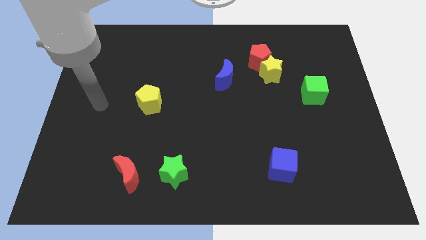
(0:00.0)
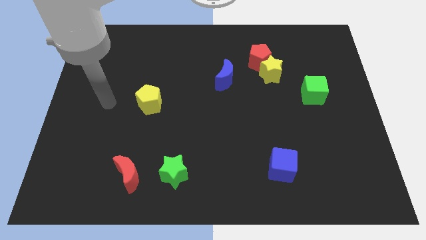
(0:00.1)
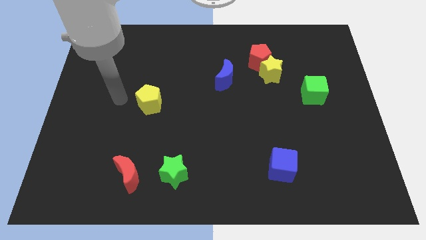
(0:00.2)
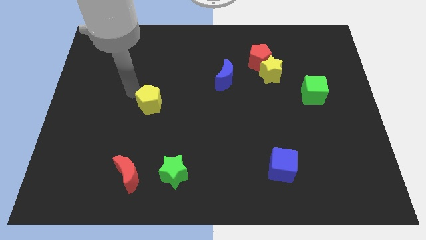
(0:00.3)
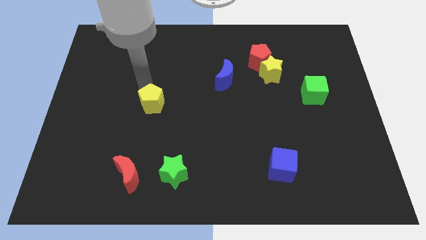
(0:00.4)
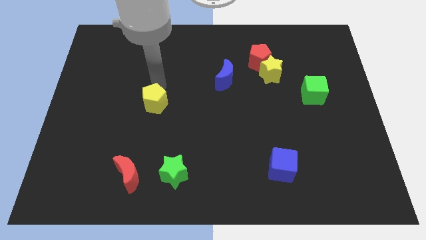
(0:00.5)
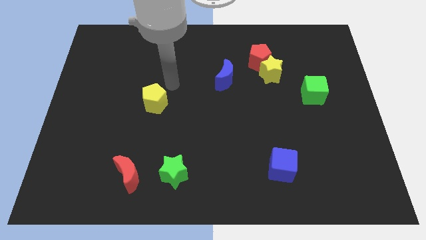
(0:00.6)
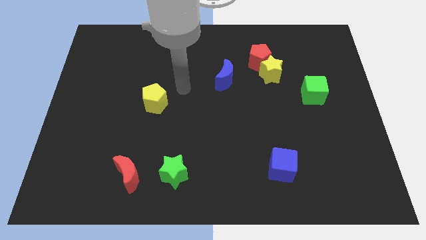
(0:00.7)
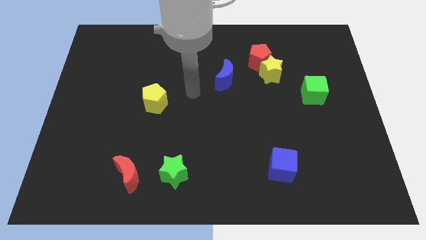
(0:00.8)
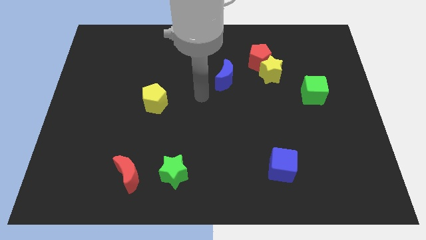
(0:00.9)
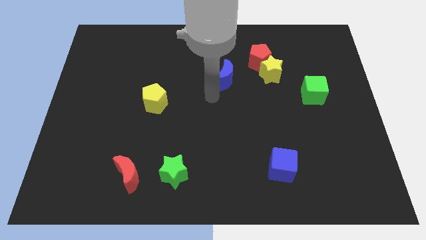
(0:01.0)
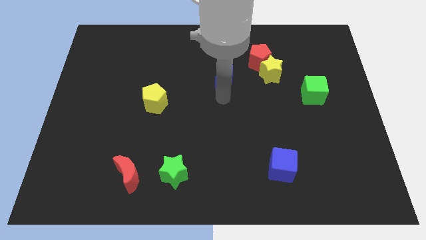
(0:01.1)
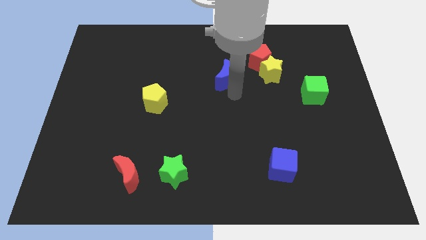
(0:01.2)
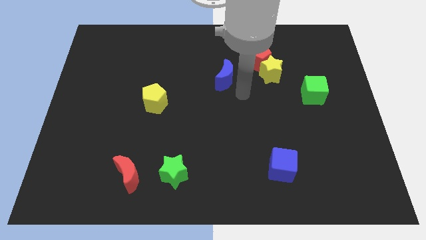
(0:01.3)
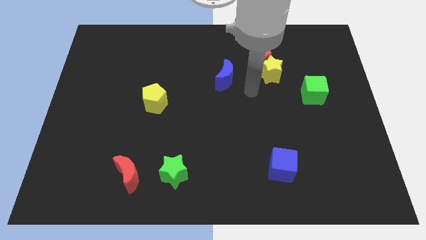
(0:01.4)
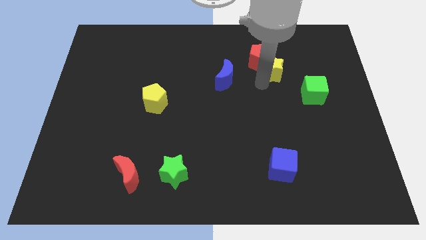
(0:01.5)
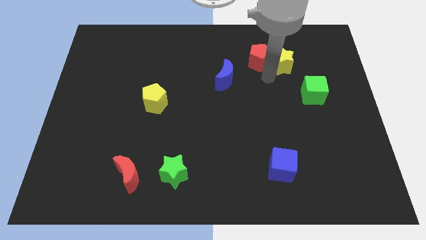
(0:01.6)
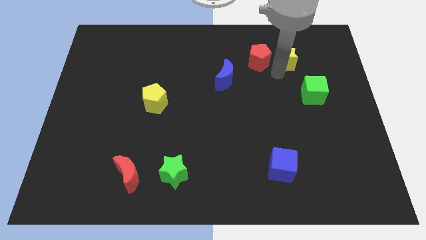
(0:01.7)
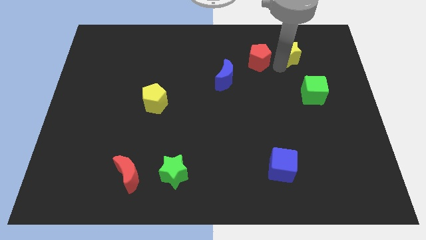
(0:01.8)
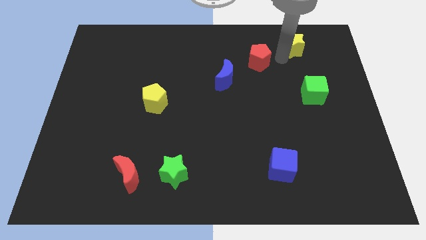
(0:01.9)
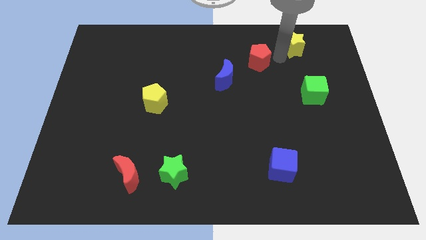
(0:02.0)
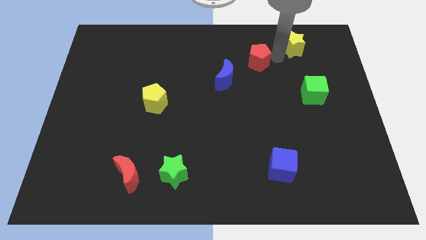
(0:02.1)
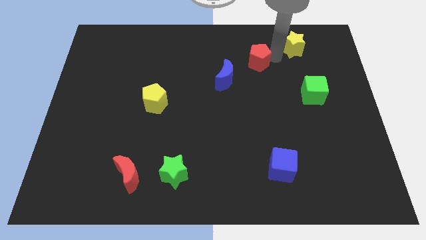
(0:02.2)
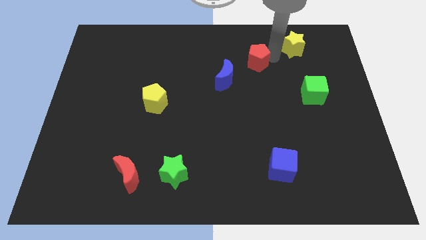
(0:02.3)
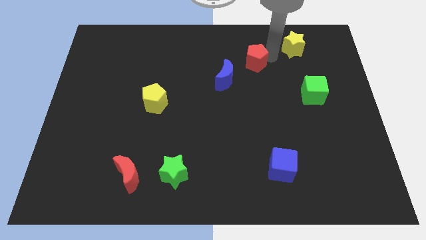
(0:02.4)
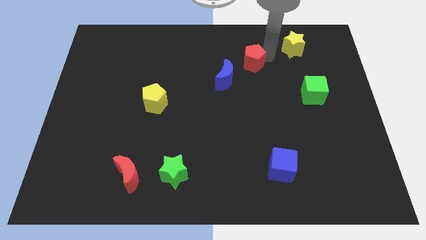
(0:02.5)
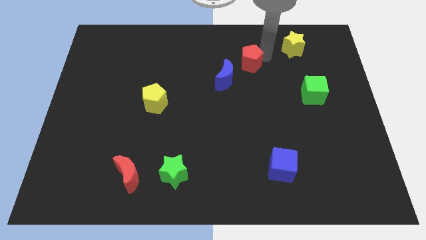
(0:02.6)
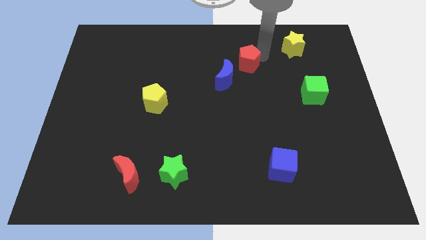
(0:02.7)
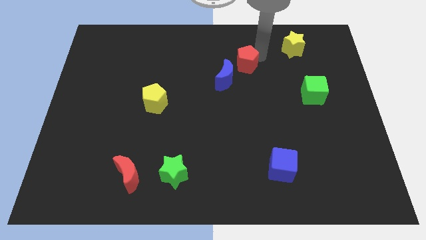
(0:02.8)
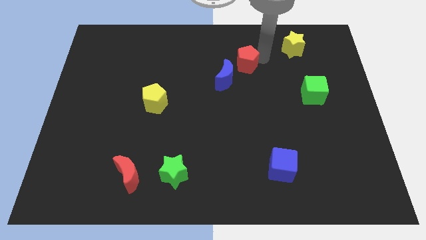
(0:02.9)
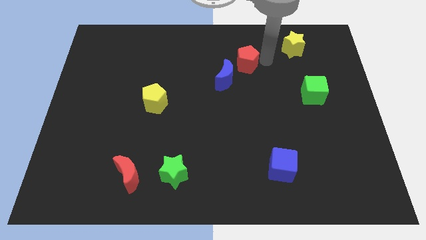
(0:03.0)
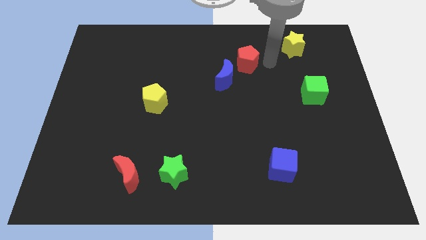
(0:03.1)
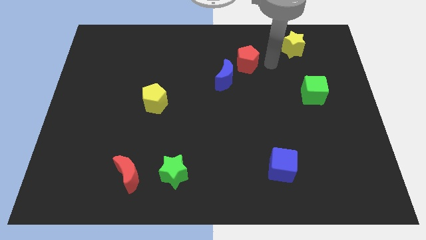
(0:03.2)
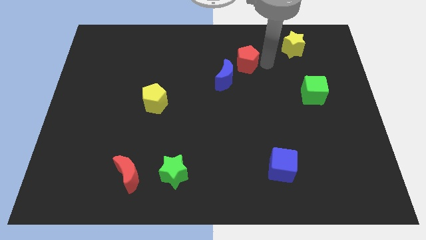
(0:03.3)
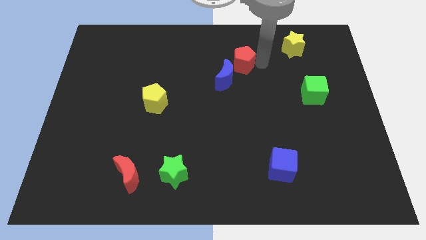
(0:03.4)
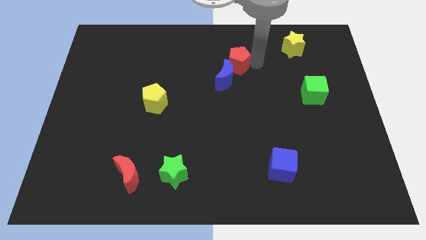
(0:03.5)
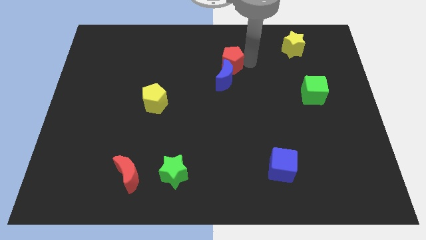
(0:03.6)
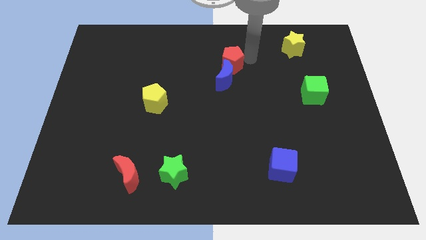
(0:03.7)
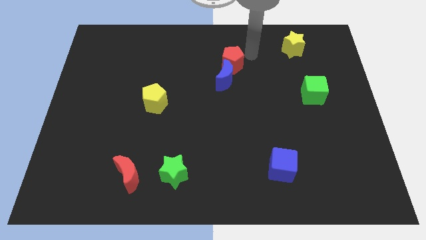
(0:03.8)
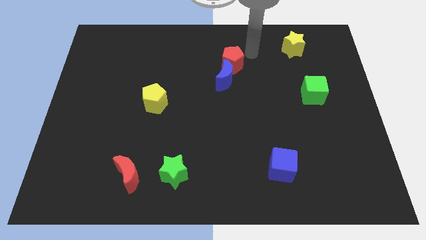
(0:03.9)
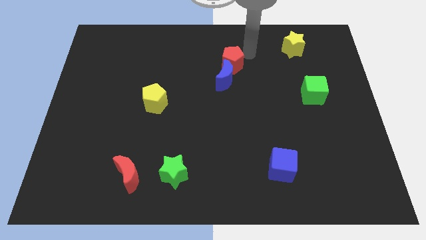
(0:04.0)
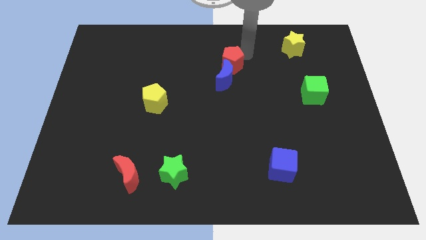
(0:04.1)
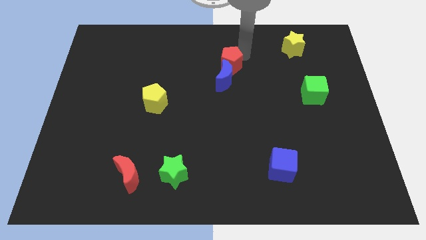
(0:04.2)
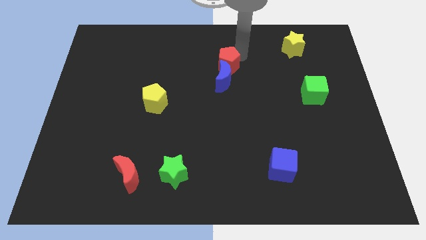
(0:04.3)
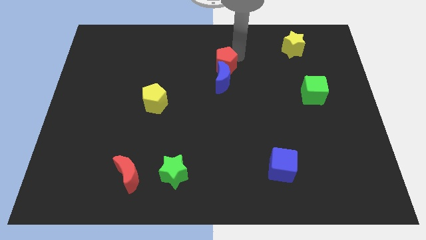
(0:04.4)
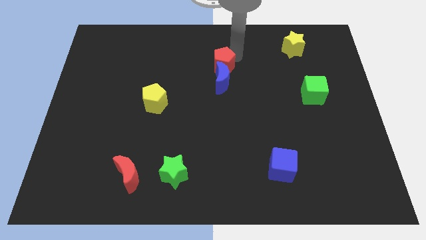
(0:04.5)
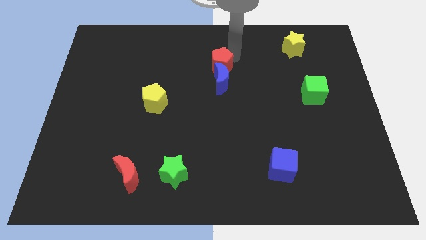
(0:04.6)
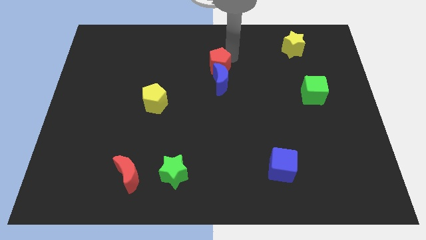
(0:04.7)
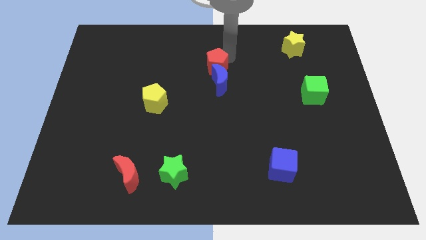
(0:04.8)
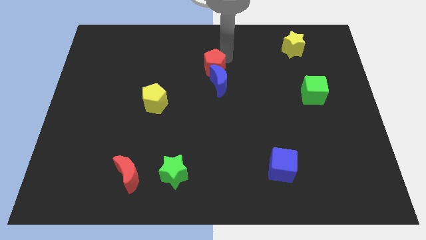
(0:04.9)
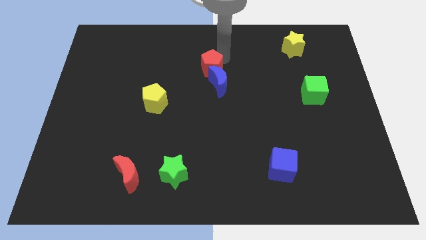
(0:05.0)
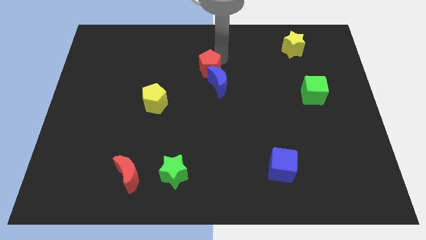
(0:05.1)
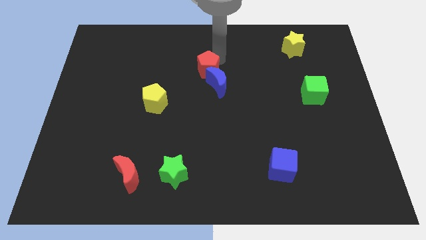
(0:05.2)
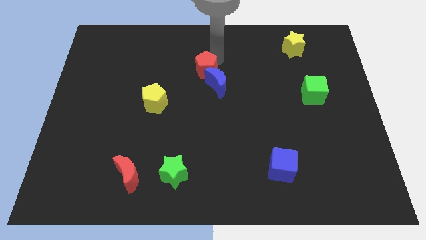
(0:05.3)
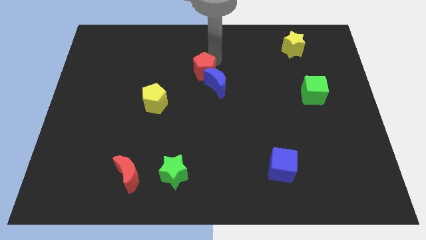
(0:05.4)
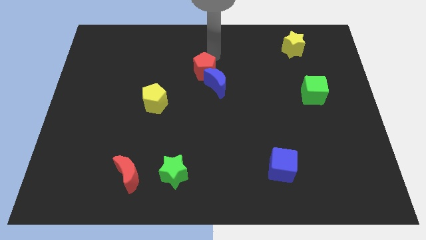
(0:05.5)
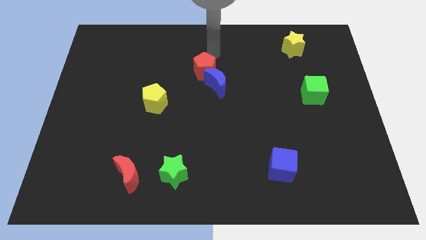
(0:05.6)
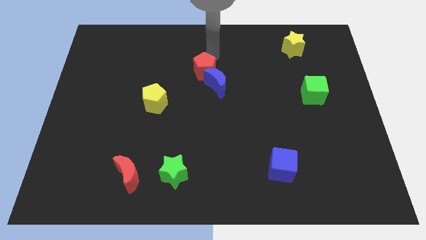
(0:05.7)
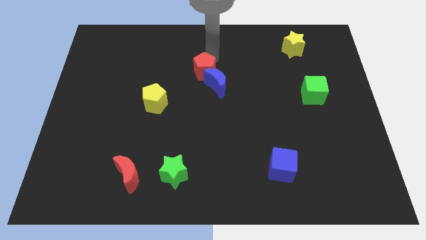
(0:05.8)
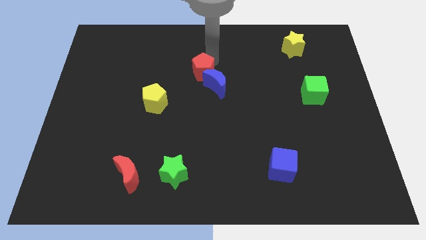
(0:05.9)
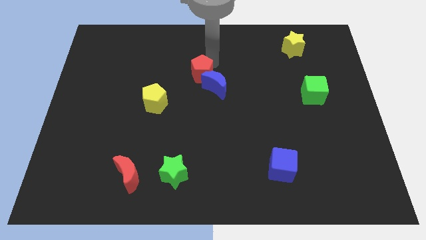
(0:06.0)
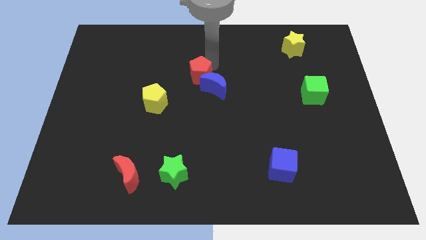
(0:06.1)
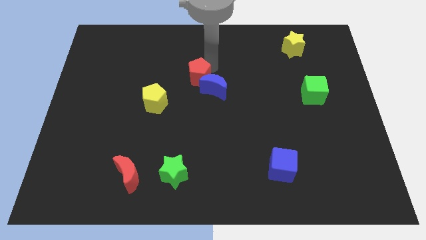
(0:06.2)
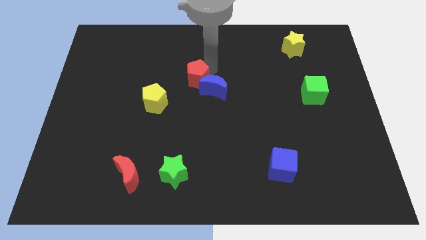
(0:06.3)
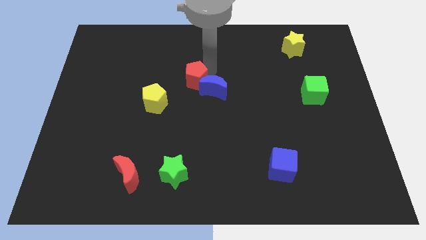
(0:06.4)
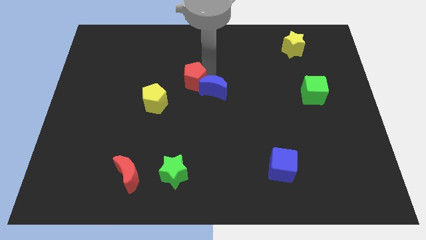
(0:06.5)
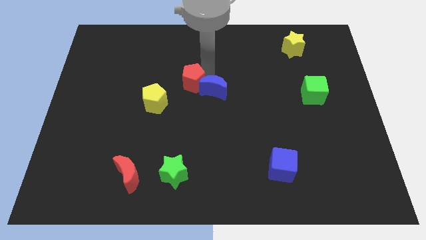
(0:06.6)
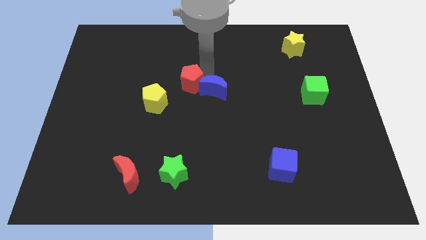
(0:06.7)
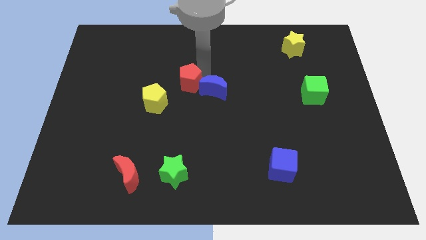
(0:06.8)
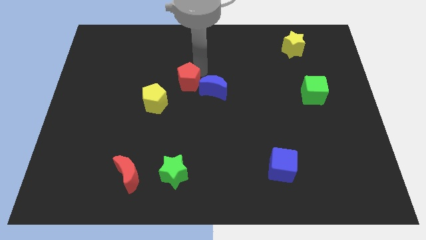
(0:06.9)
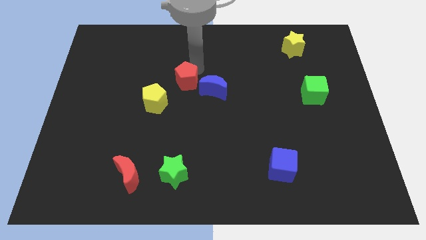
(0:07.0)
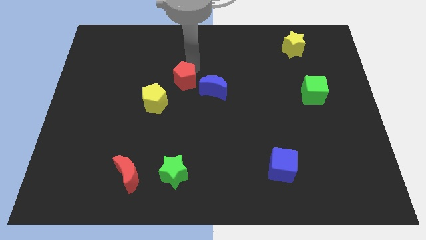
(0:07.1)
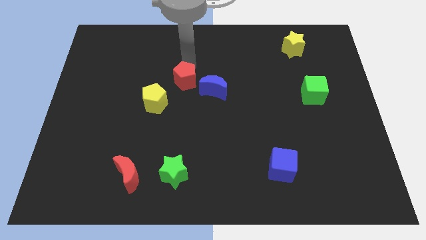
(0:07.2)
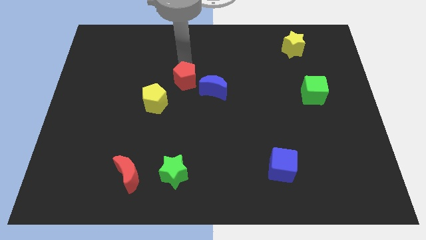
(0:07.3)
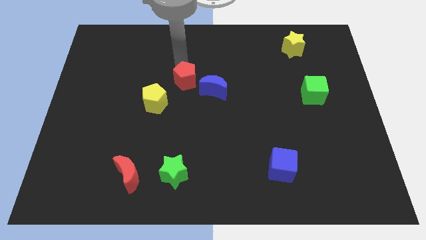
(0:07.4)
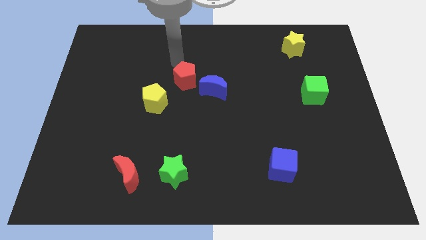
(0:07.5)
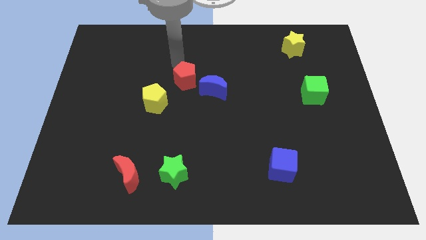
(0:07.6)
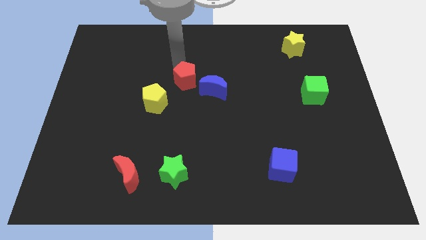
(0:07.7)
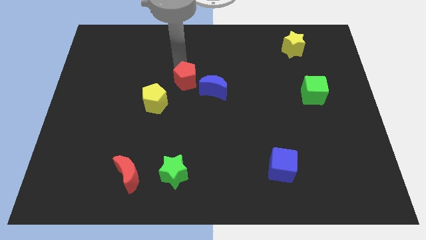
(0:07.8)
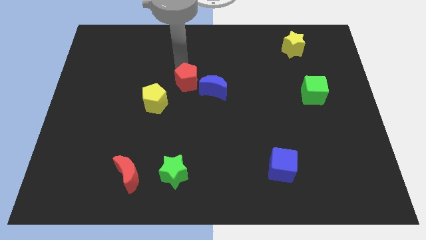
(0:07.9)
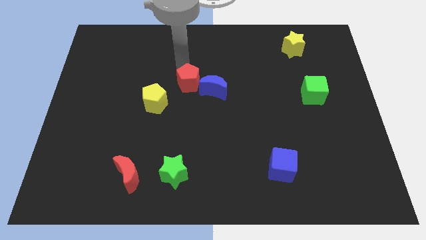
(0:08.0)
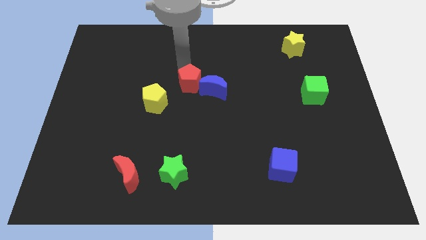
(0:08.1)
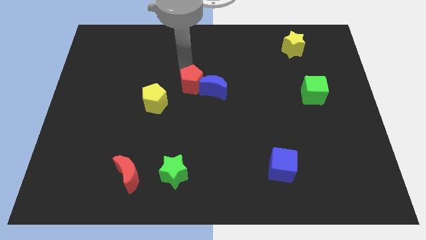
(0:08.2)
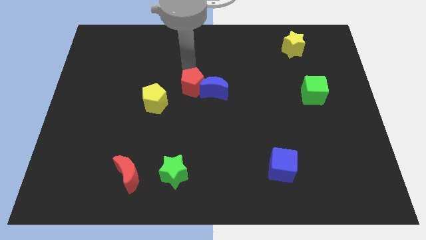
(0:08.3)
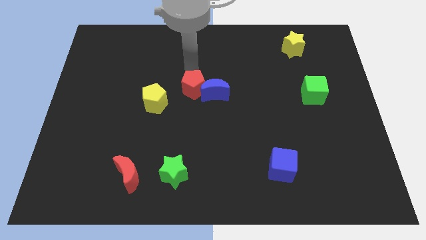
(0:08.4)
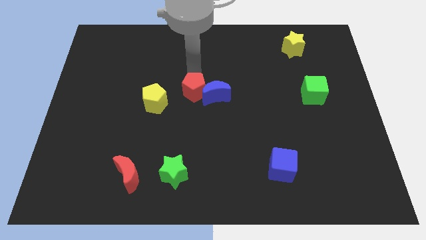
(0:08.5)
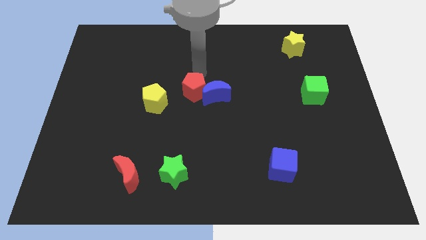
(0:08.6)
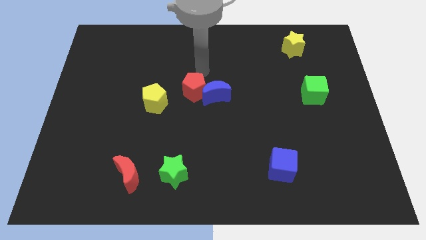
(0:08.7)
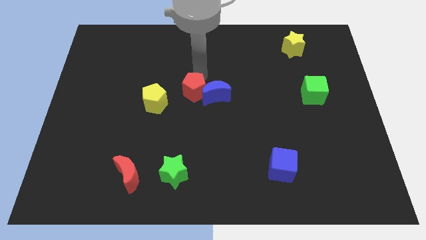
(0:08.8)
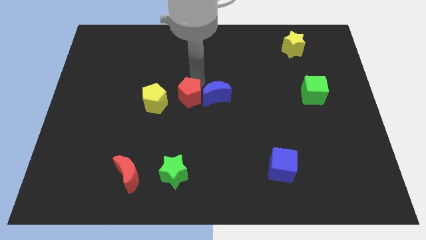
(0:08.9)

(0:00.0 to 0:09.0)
slide the red pentagon down and left
